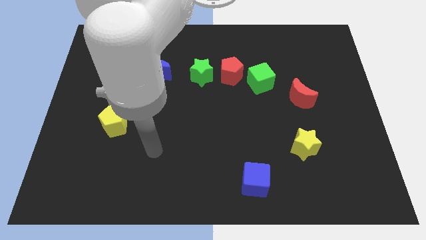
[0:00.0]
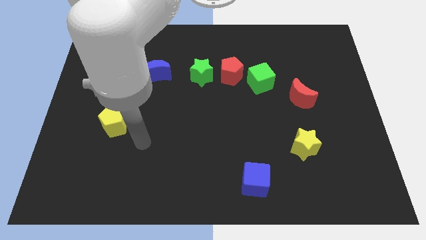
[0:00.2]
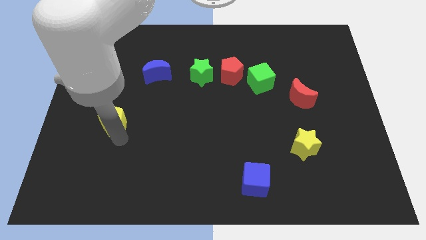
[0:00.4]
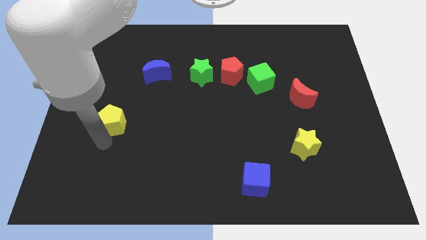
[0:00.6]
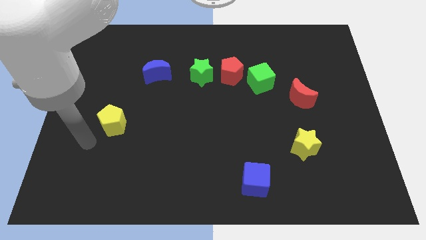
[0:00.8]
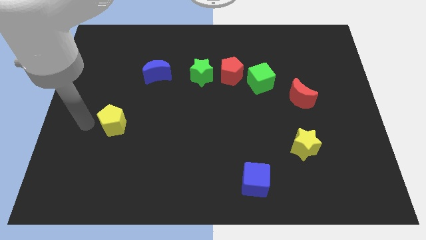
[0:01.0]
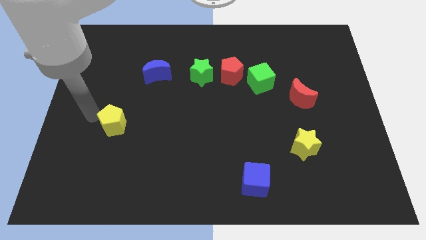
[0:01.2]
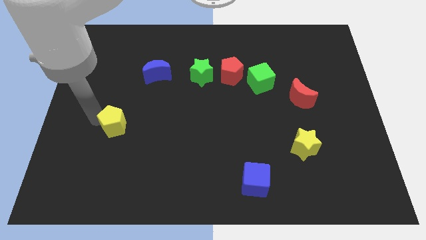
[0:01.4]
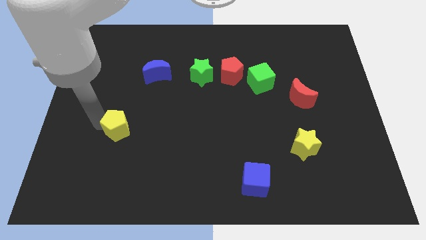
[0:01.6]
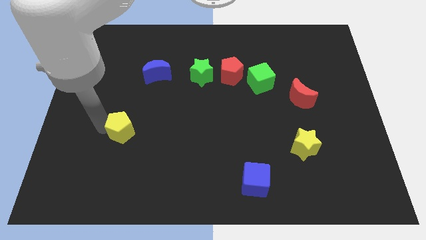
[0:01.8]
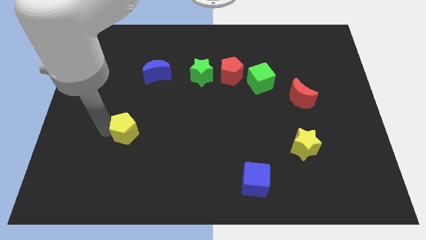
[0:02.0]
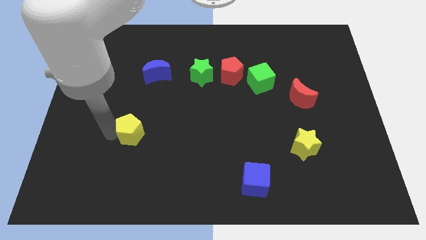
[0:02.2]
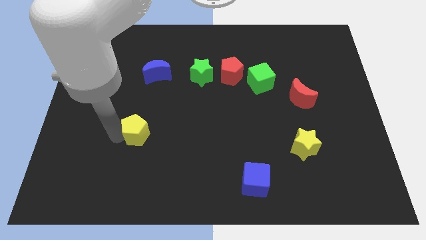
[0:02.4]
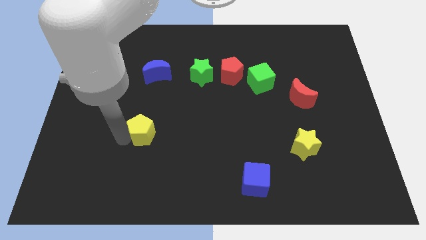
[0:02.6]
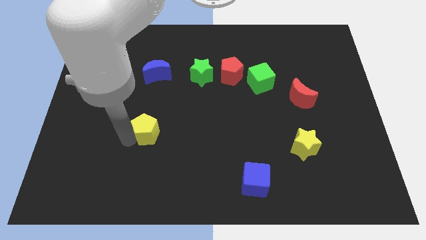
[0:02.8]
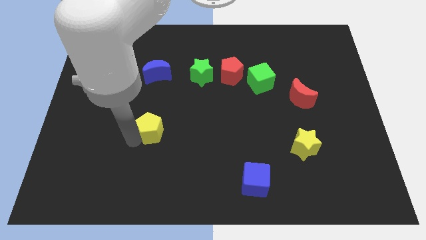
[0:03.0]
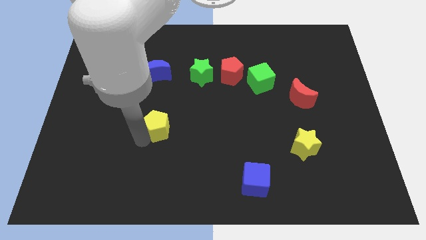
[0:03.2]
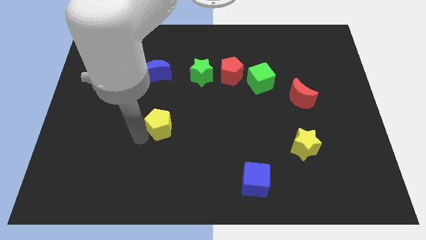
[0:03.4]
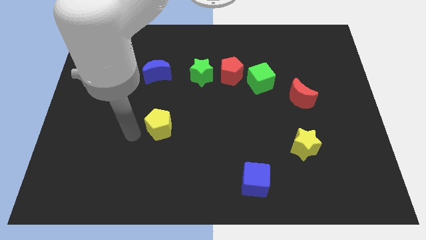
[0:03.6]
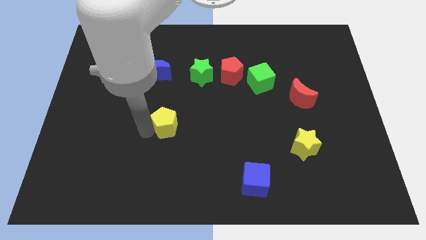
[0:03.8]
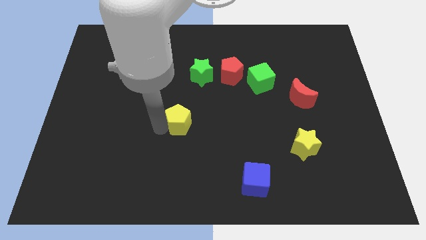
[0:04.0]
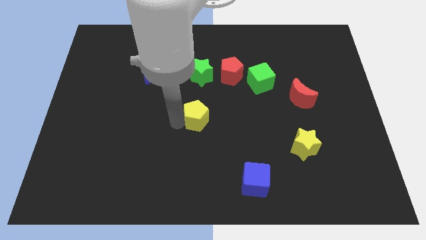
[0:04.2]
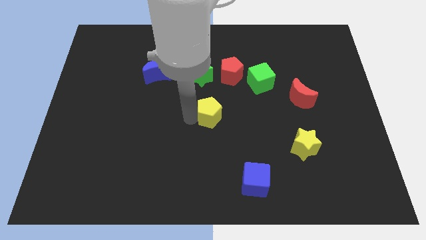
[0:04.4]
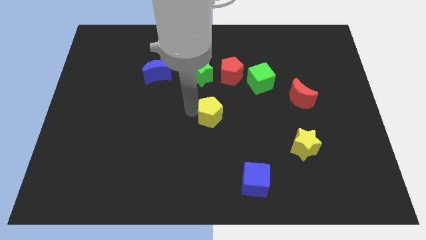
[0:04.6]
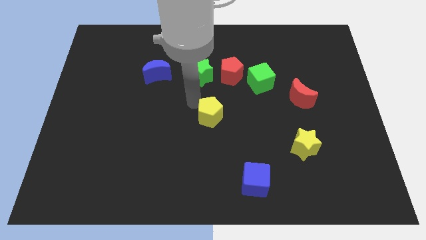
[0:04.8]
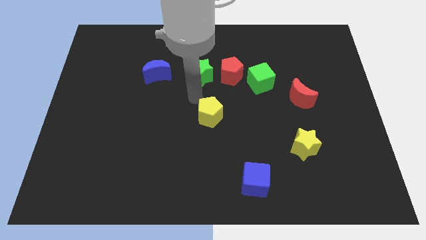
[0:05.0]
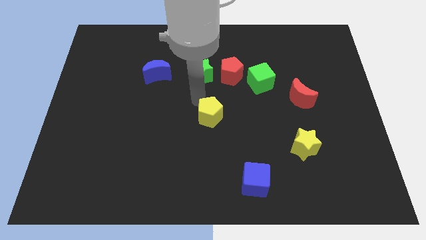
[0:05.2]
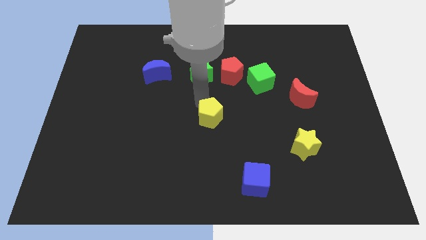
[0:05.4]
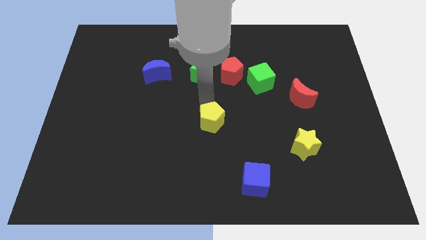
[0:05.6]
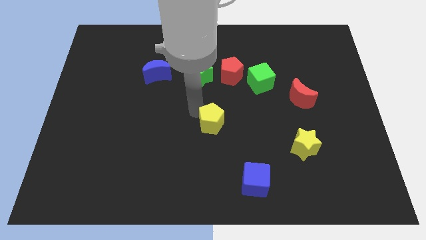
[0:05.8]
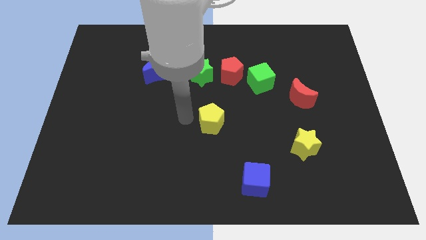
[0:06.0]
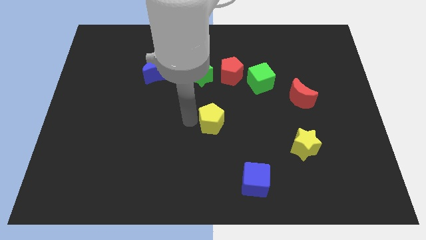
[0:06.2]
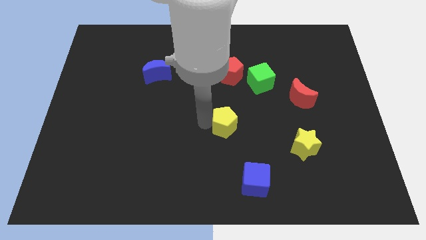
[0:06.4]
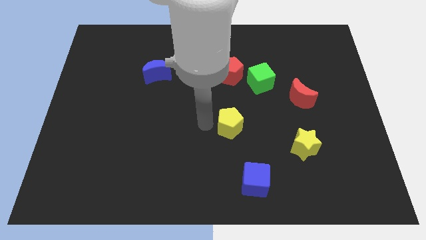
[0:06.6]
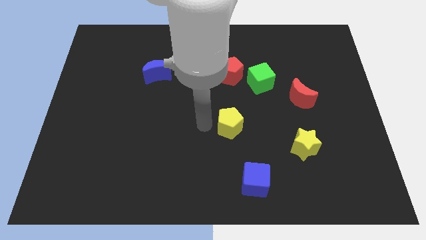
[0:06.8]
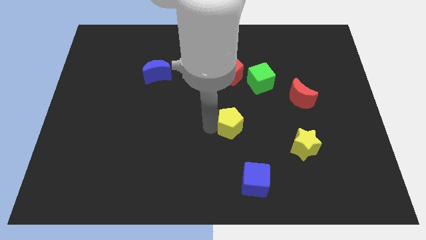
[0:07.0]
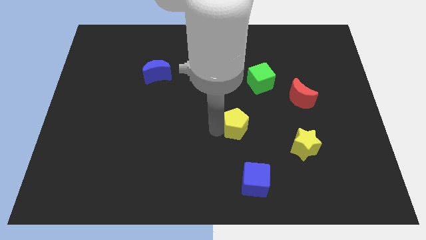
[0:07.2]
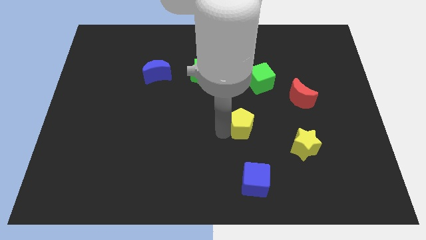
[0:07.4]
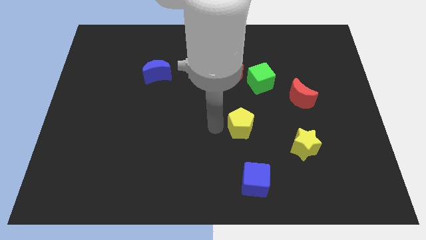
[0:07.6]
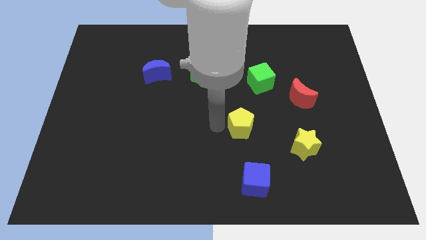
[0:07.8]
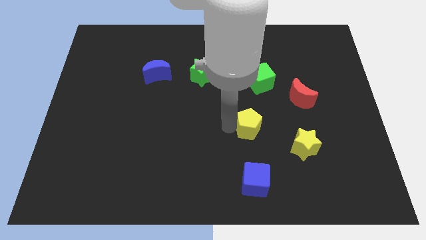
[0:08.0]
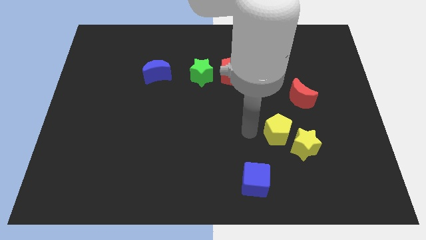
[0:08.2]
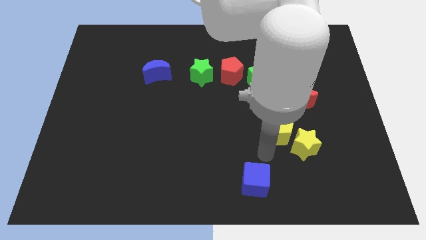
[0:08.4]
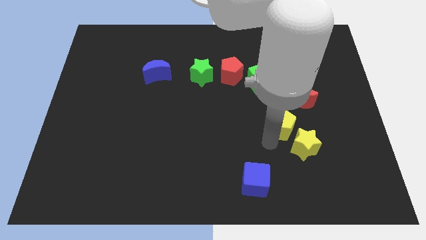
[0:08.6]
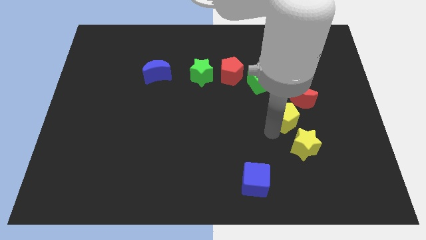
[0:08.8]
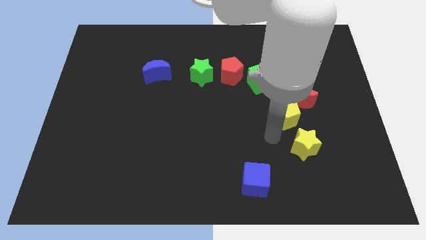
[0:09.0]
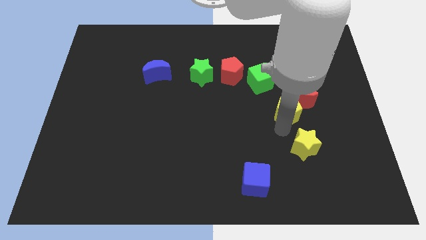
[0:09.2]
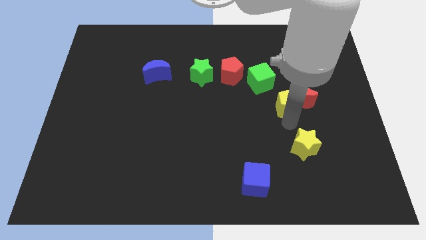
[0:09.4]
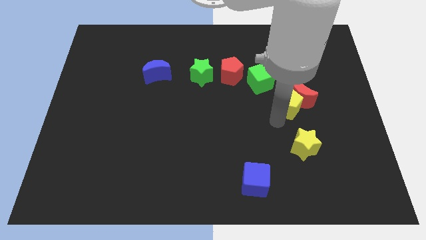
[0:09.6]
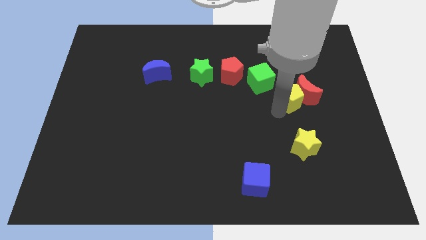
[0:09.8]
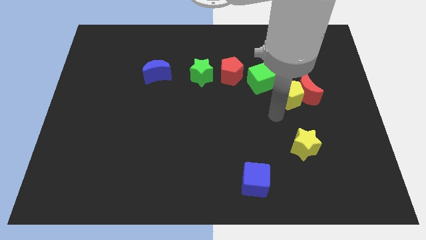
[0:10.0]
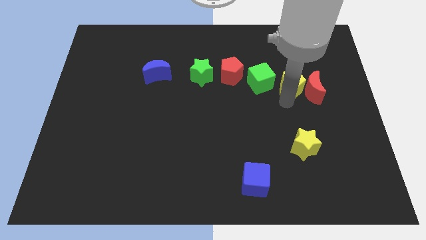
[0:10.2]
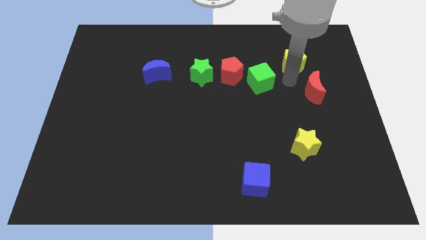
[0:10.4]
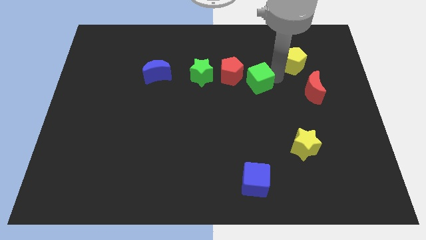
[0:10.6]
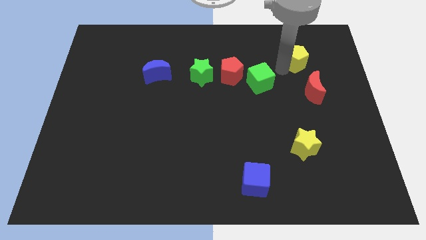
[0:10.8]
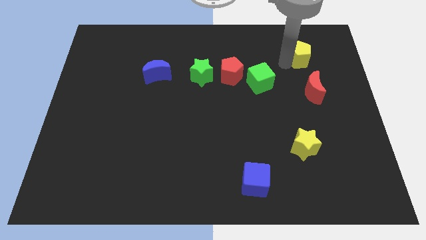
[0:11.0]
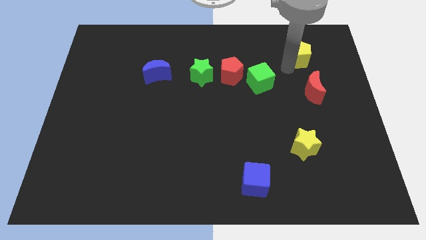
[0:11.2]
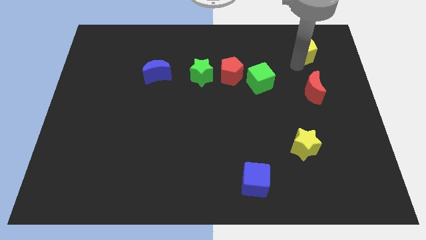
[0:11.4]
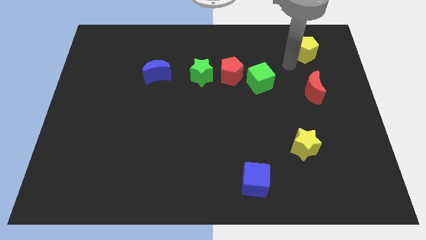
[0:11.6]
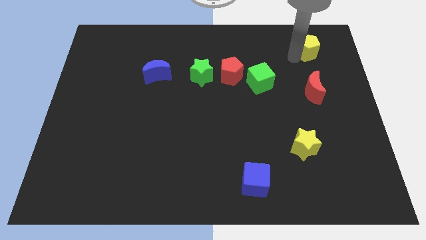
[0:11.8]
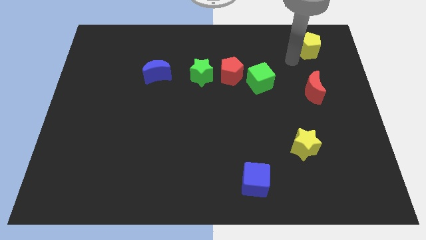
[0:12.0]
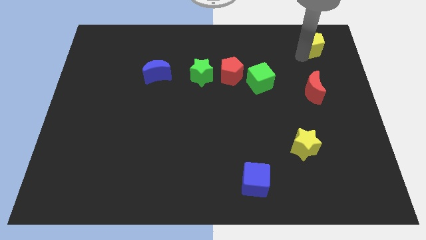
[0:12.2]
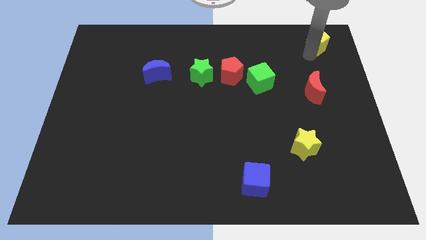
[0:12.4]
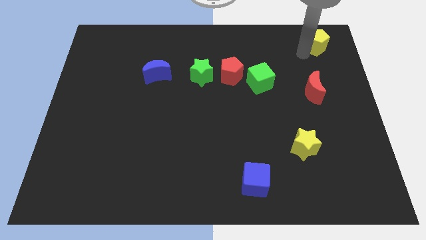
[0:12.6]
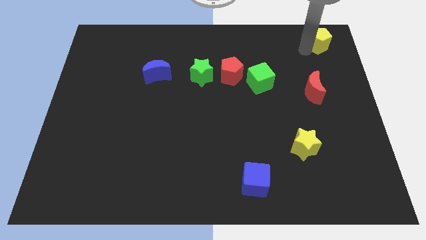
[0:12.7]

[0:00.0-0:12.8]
move the yellow pentagon to the top right corner

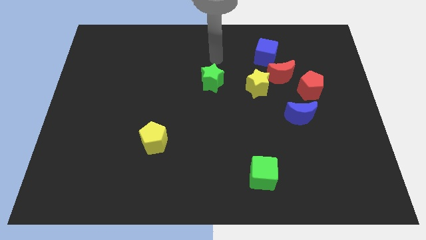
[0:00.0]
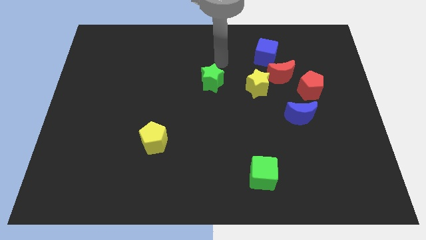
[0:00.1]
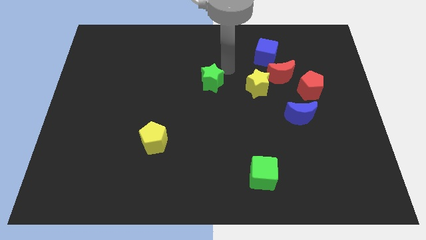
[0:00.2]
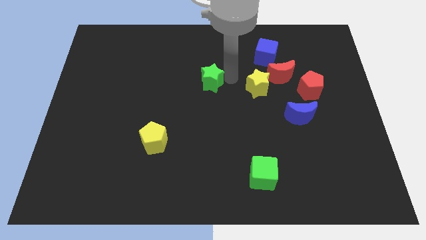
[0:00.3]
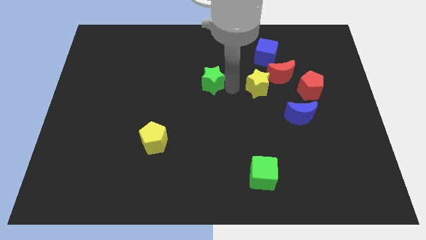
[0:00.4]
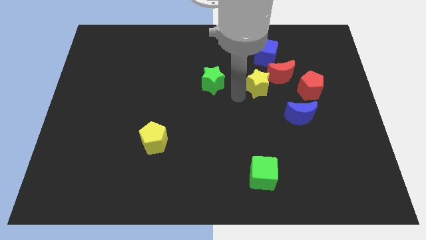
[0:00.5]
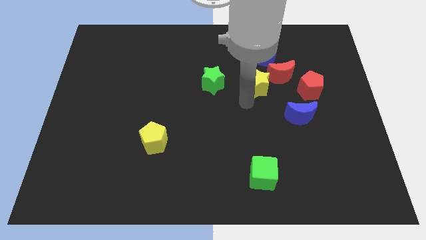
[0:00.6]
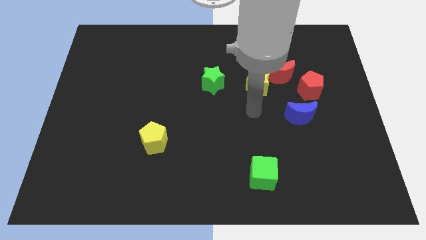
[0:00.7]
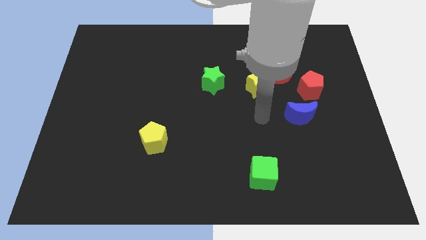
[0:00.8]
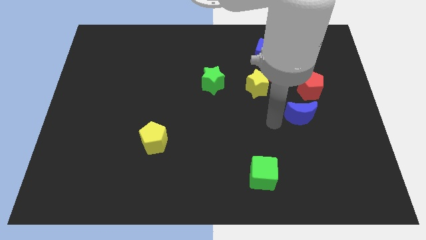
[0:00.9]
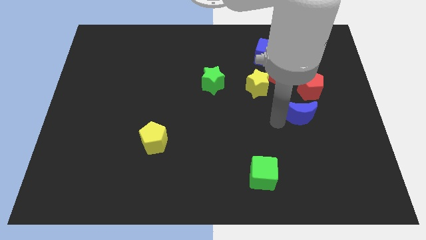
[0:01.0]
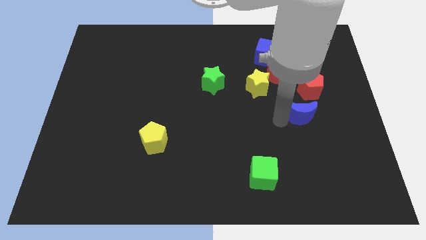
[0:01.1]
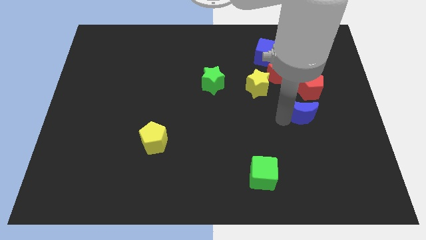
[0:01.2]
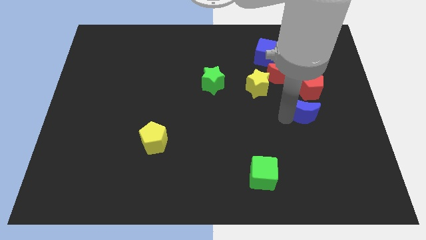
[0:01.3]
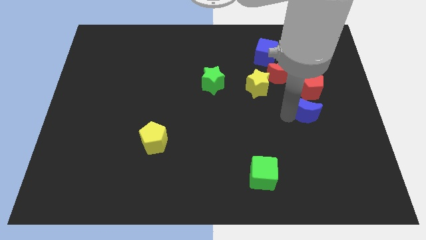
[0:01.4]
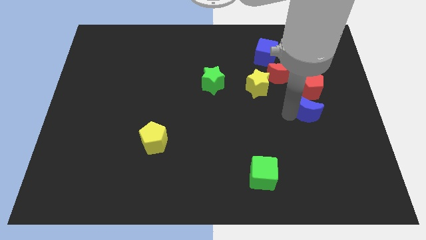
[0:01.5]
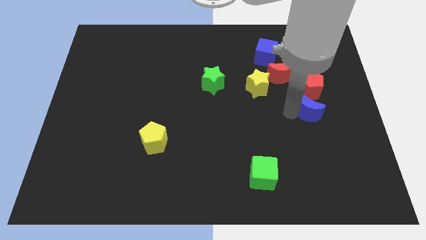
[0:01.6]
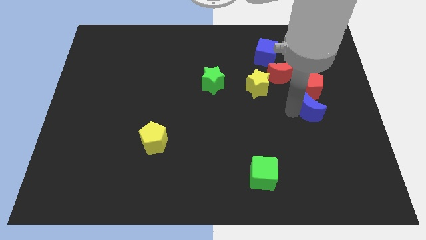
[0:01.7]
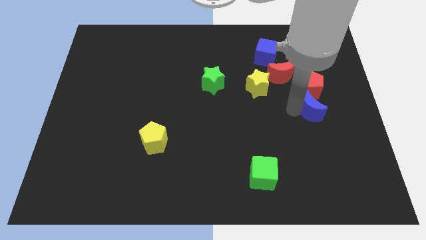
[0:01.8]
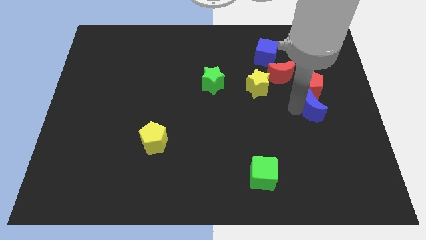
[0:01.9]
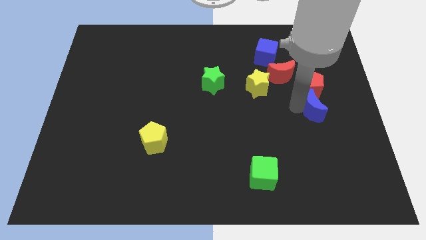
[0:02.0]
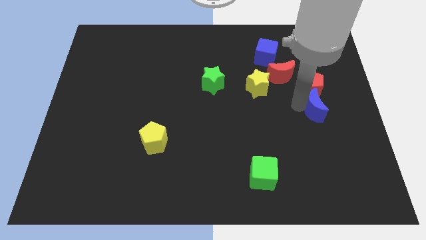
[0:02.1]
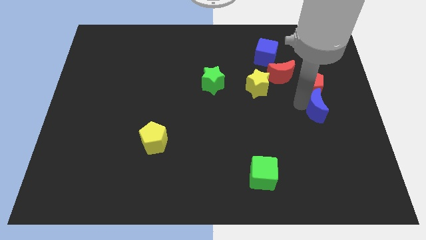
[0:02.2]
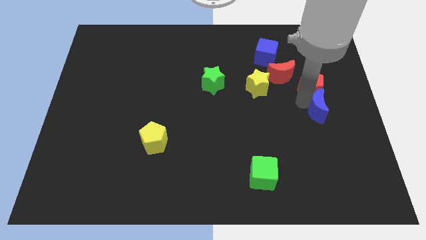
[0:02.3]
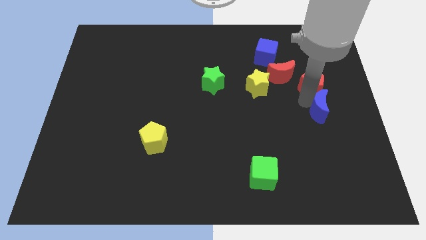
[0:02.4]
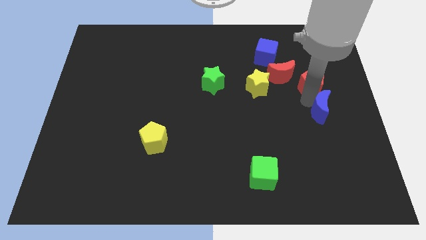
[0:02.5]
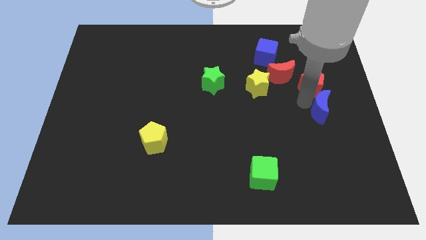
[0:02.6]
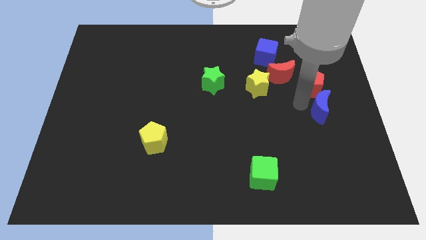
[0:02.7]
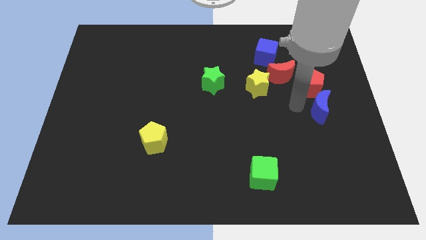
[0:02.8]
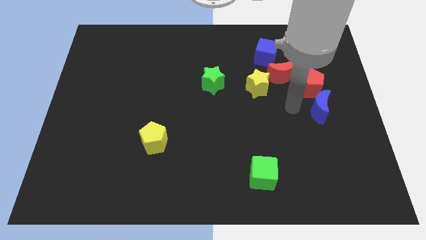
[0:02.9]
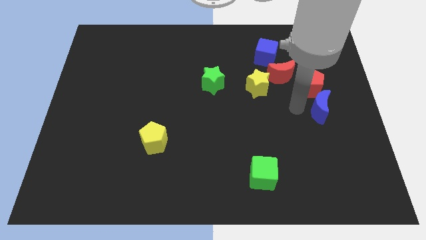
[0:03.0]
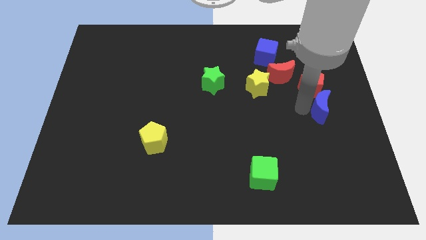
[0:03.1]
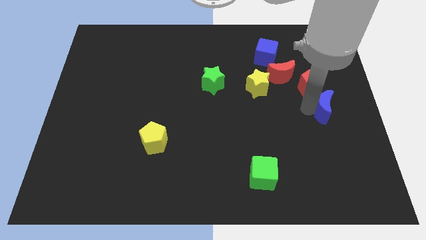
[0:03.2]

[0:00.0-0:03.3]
slide the blue moon to the right side of the board
